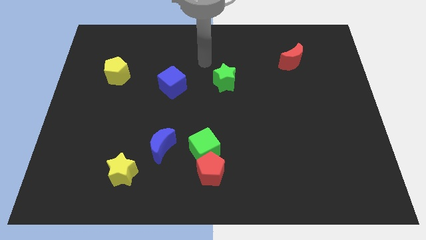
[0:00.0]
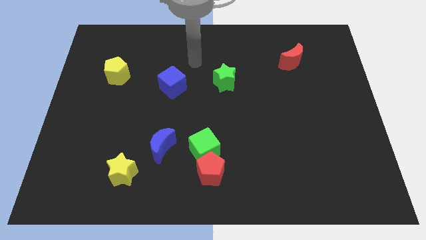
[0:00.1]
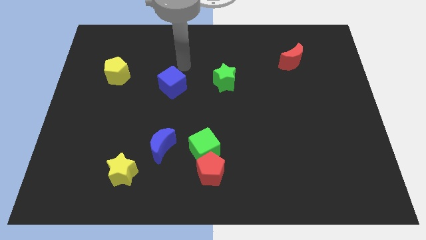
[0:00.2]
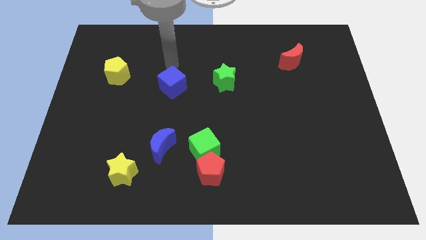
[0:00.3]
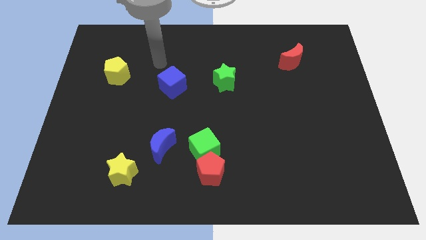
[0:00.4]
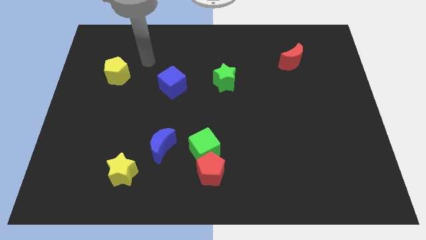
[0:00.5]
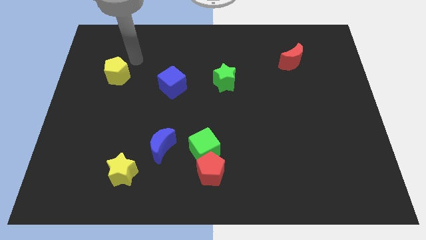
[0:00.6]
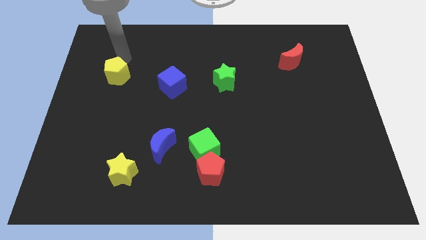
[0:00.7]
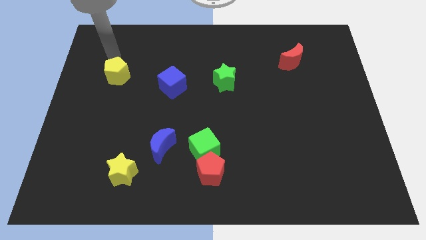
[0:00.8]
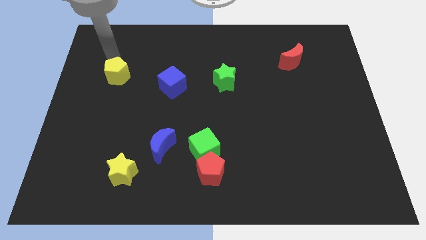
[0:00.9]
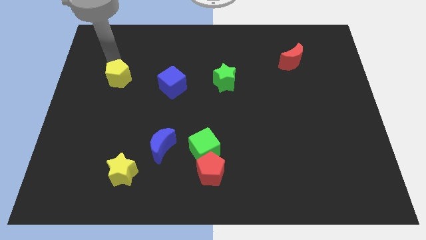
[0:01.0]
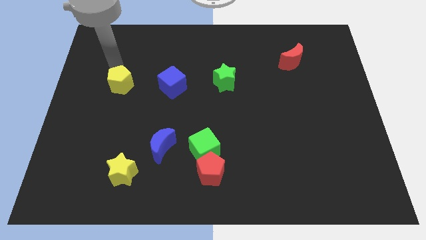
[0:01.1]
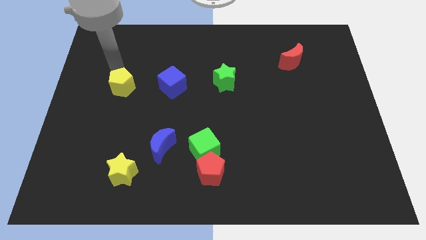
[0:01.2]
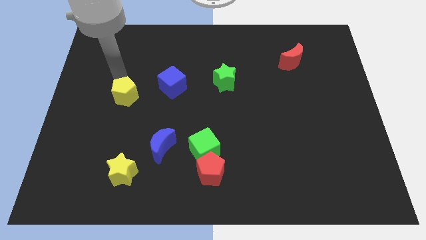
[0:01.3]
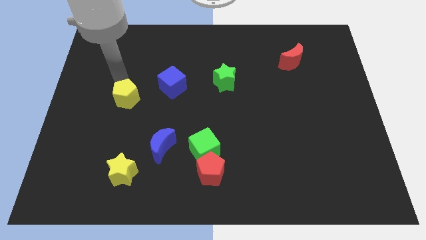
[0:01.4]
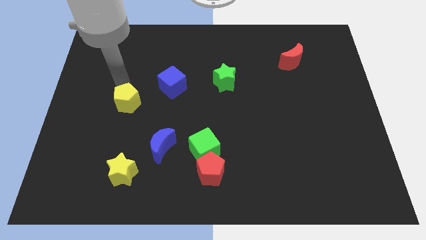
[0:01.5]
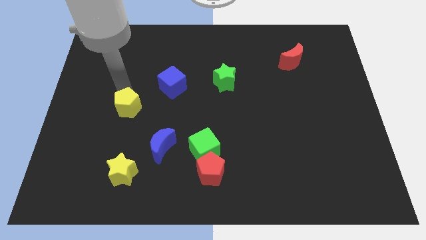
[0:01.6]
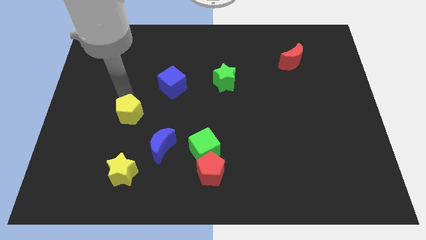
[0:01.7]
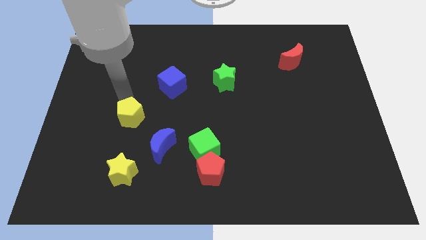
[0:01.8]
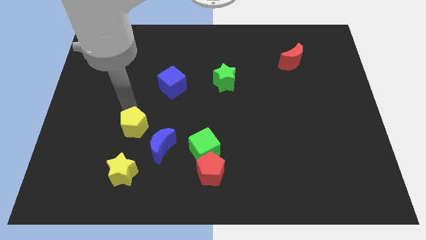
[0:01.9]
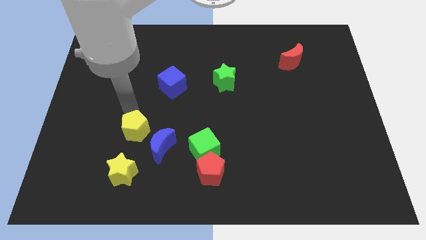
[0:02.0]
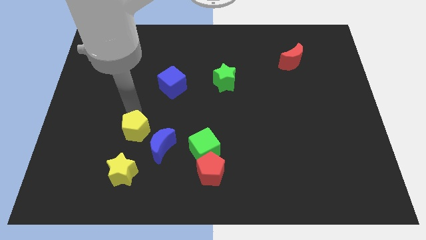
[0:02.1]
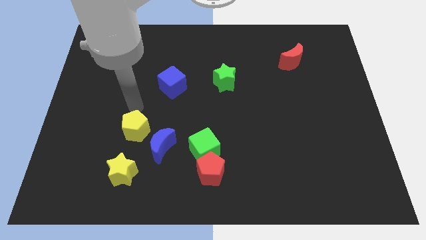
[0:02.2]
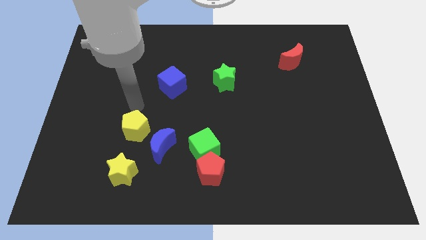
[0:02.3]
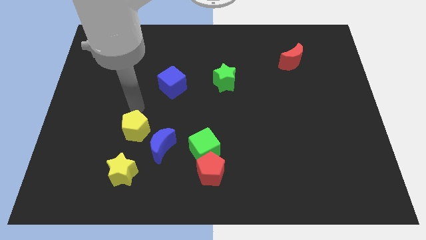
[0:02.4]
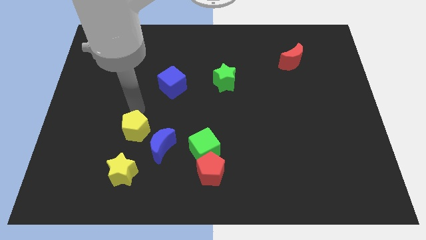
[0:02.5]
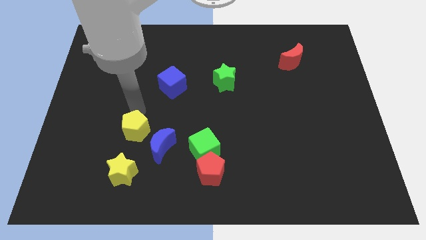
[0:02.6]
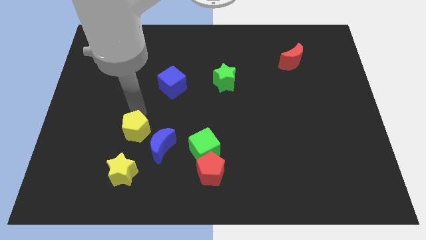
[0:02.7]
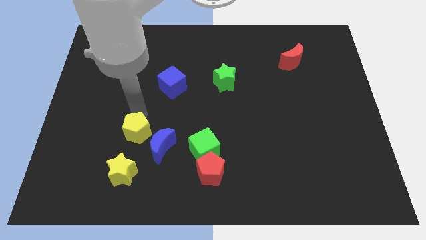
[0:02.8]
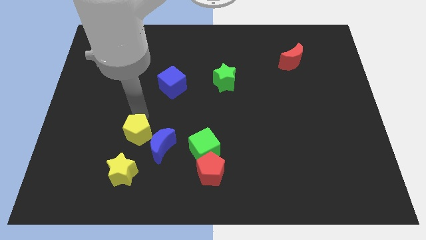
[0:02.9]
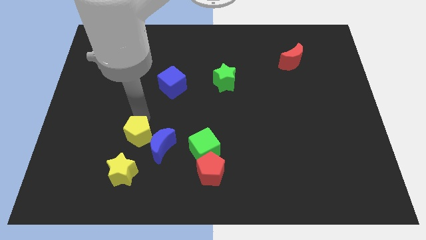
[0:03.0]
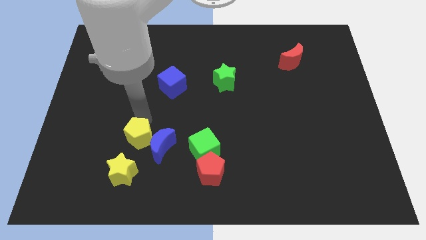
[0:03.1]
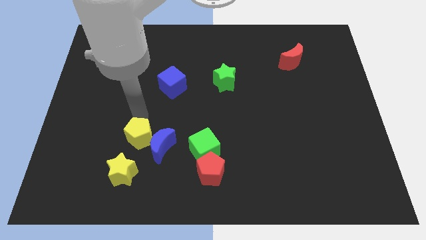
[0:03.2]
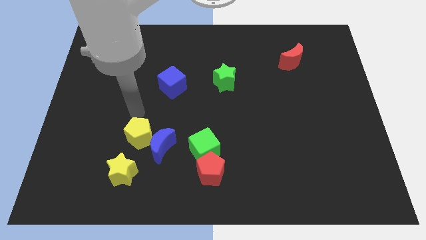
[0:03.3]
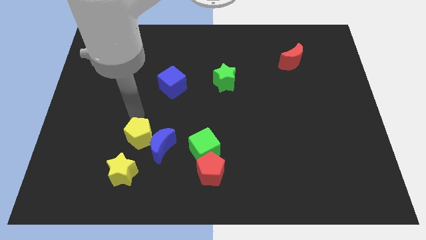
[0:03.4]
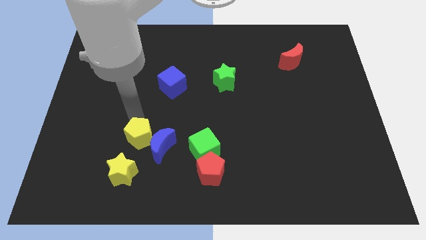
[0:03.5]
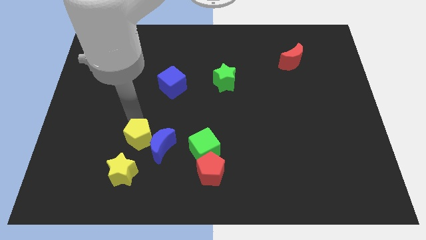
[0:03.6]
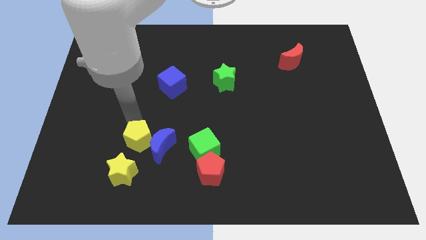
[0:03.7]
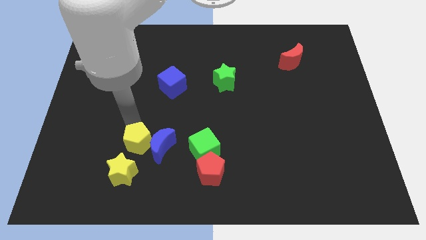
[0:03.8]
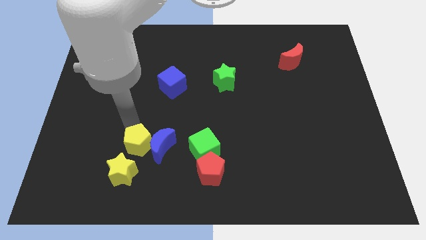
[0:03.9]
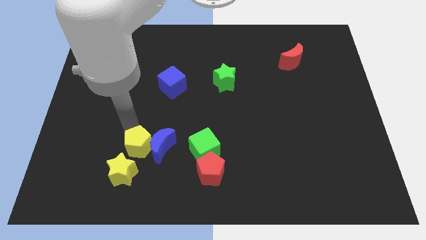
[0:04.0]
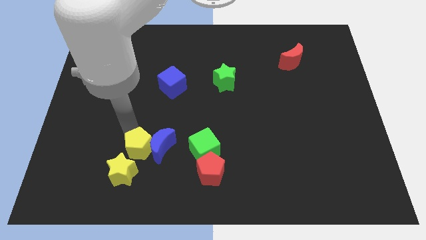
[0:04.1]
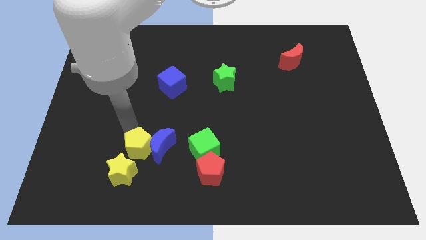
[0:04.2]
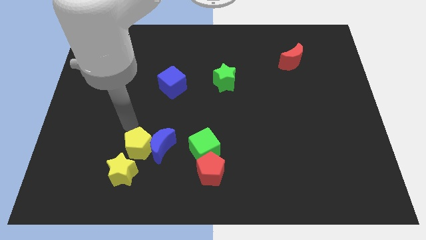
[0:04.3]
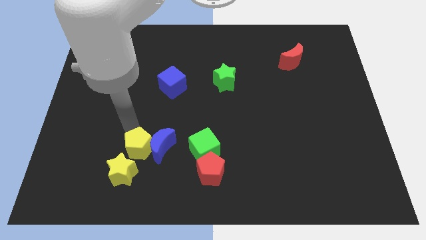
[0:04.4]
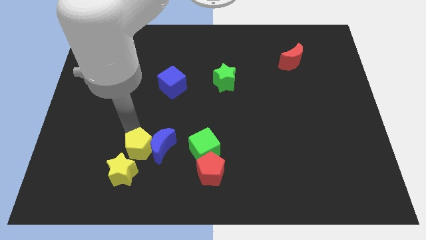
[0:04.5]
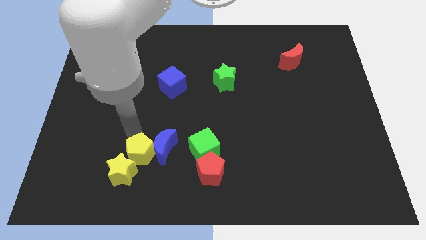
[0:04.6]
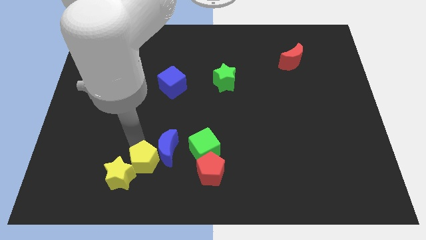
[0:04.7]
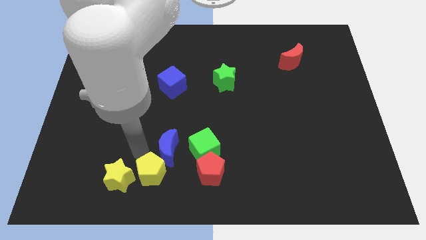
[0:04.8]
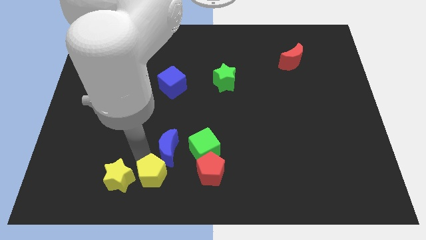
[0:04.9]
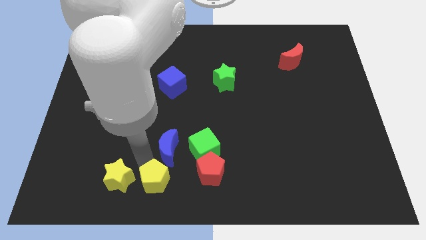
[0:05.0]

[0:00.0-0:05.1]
move the yellow pentagon to the bottom side

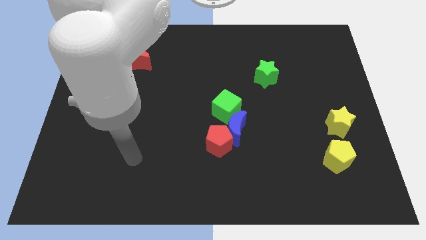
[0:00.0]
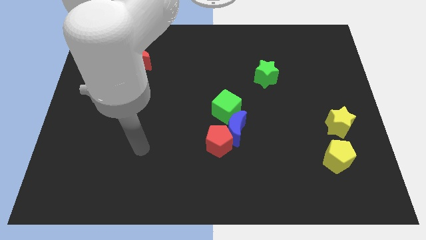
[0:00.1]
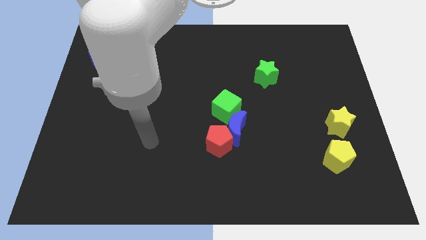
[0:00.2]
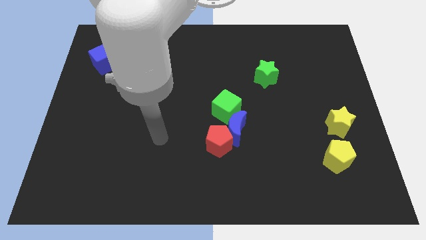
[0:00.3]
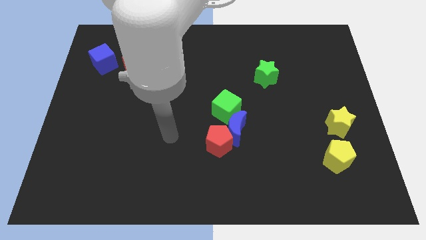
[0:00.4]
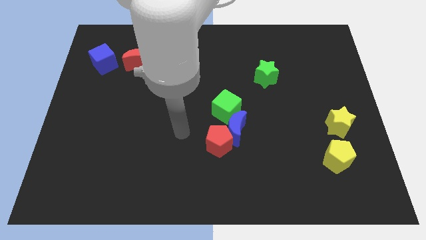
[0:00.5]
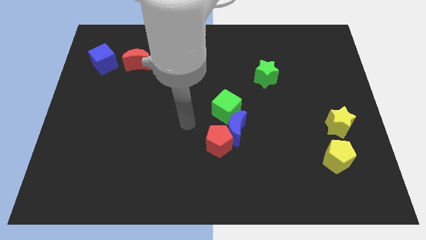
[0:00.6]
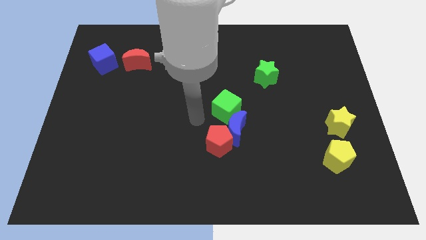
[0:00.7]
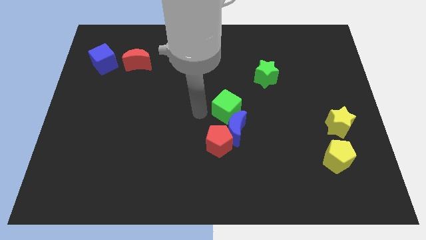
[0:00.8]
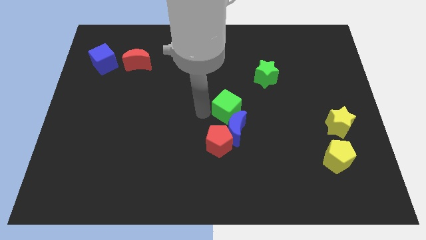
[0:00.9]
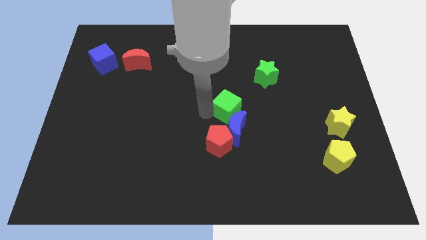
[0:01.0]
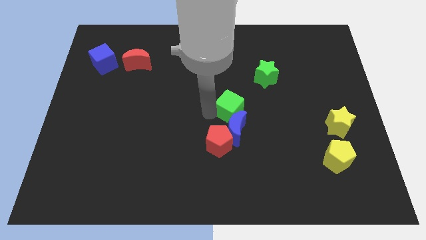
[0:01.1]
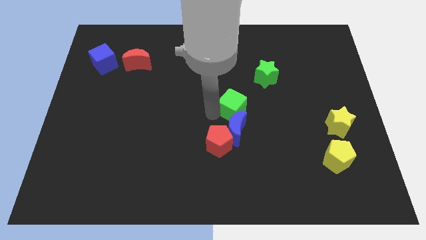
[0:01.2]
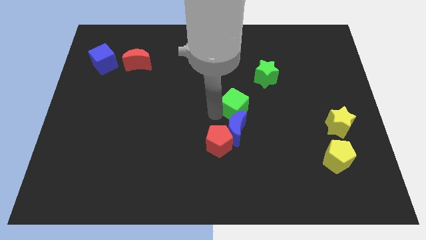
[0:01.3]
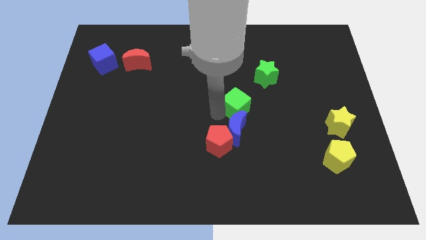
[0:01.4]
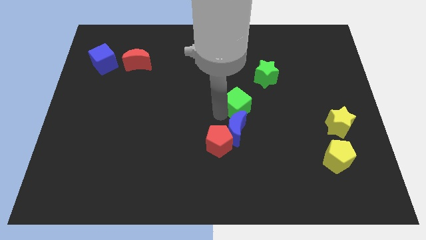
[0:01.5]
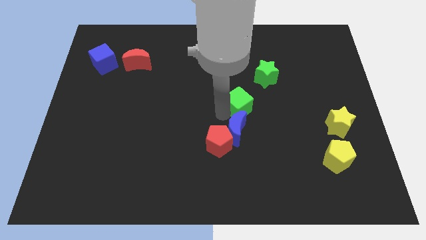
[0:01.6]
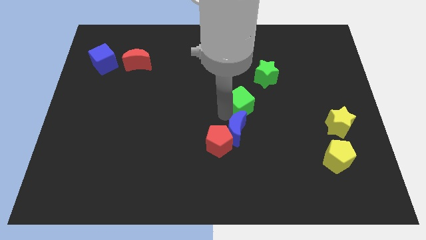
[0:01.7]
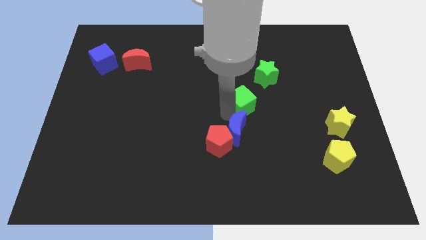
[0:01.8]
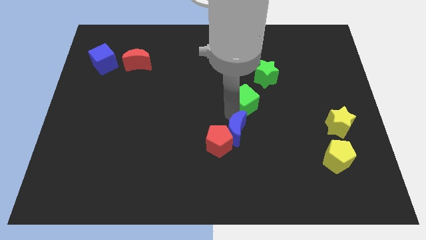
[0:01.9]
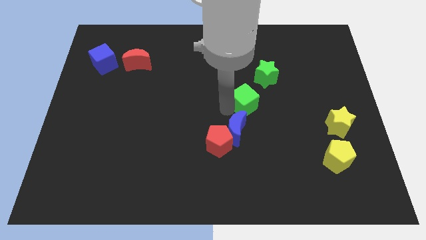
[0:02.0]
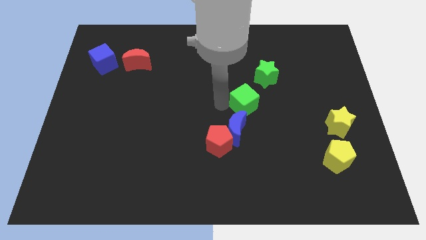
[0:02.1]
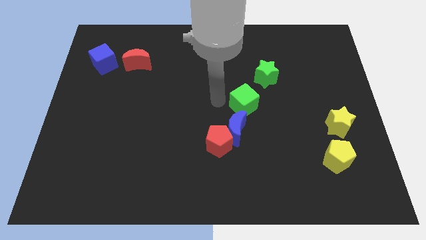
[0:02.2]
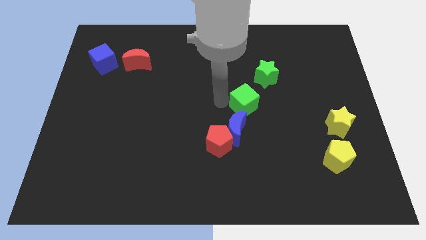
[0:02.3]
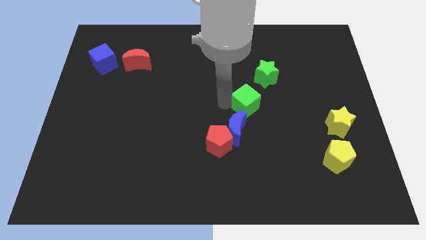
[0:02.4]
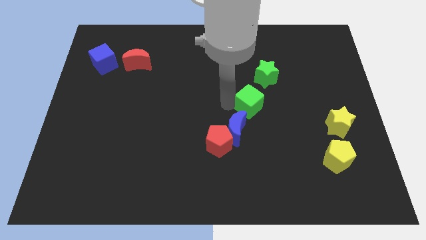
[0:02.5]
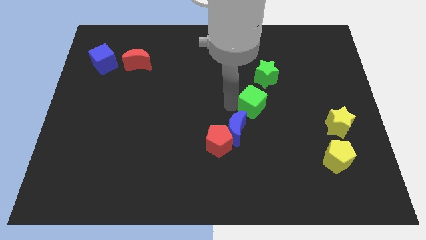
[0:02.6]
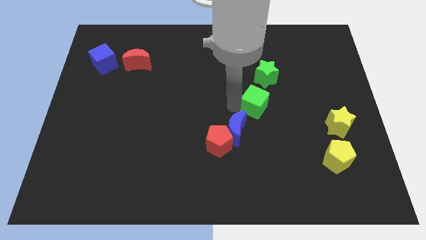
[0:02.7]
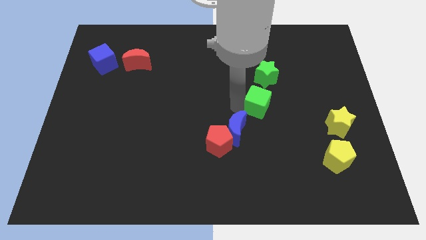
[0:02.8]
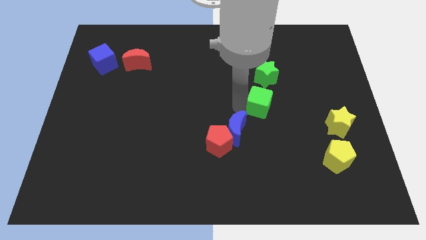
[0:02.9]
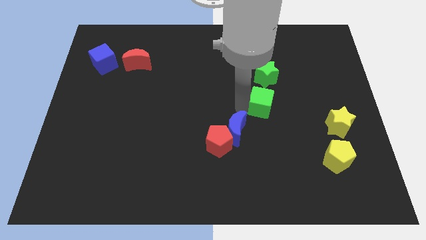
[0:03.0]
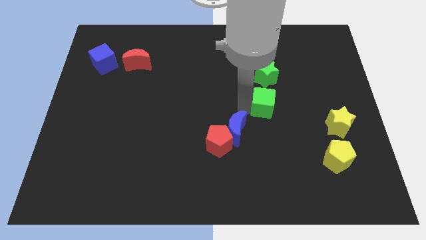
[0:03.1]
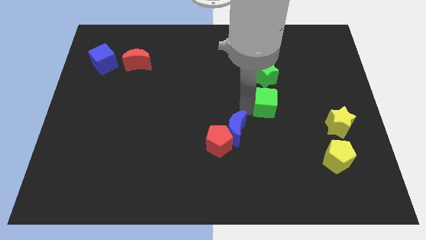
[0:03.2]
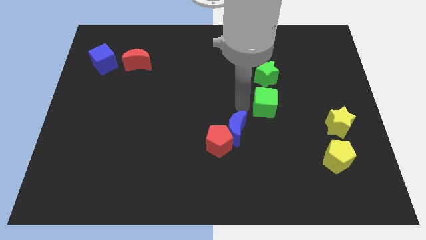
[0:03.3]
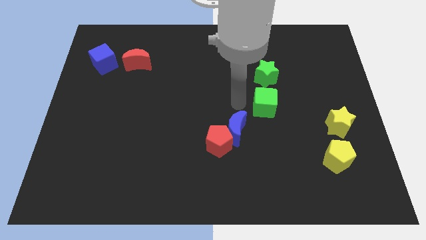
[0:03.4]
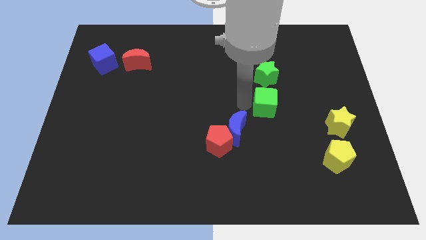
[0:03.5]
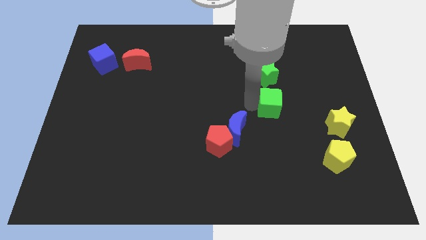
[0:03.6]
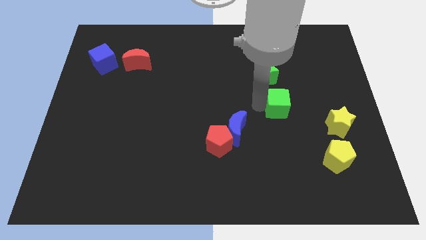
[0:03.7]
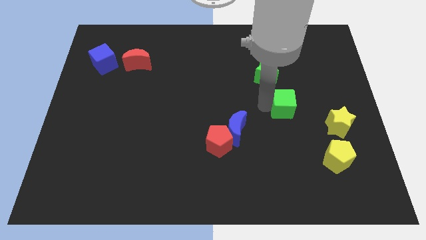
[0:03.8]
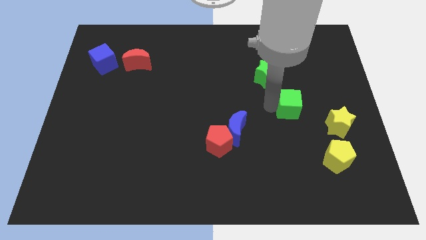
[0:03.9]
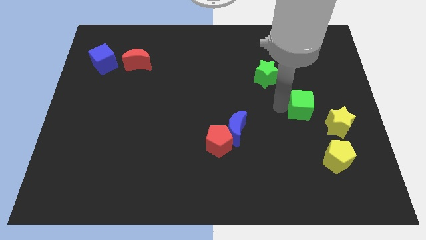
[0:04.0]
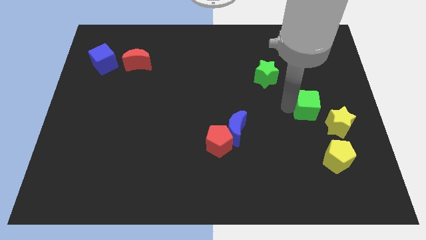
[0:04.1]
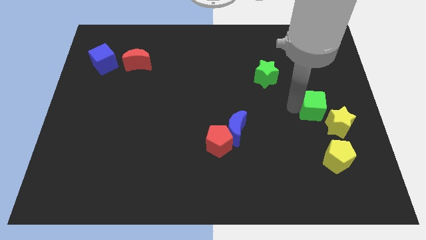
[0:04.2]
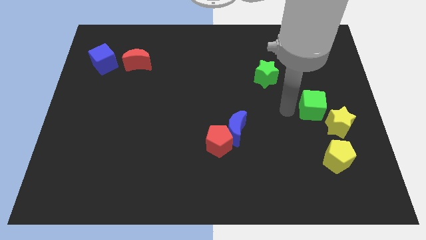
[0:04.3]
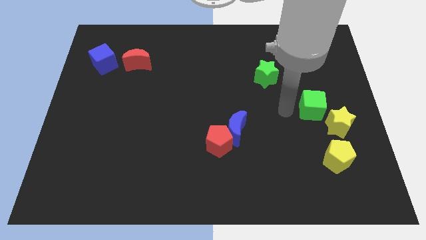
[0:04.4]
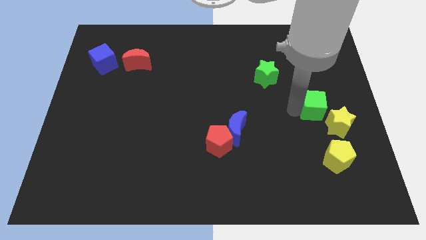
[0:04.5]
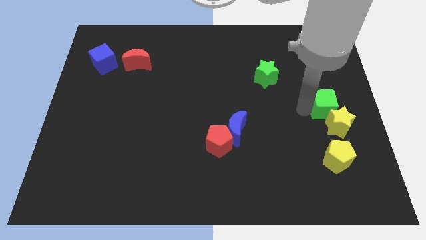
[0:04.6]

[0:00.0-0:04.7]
put the green cube to the center right
